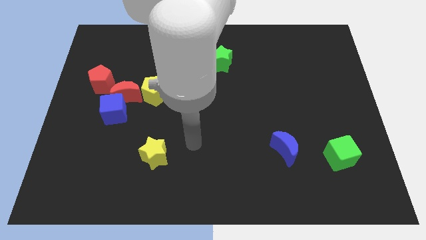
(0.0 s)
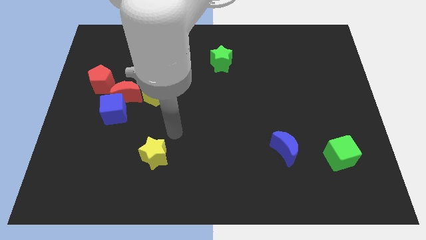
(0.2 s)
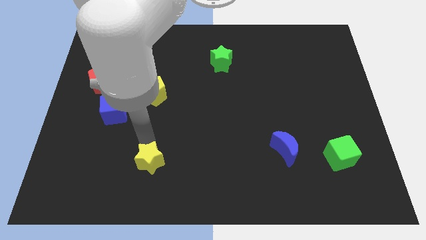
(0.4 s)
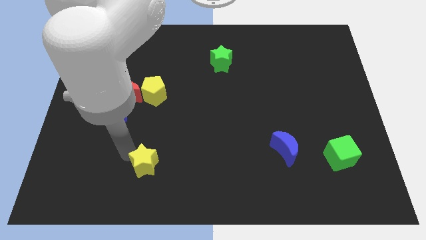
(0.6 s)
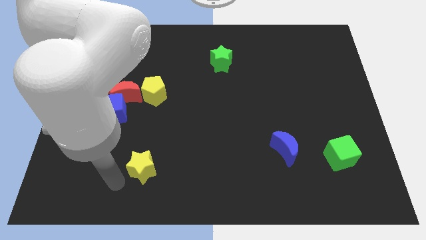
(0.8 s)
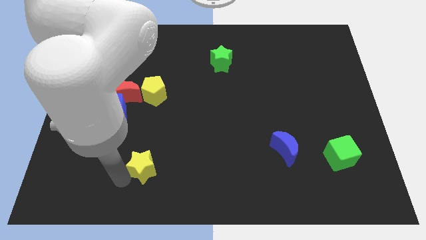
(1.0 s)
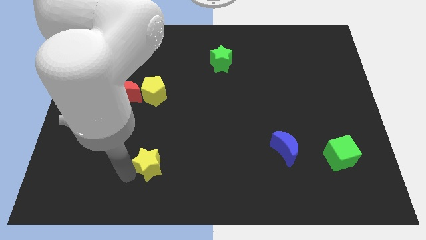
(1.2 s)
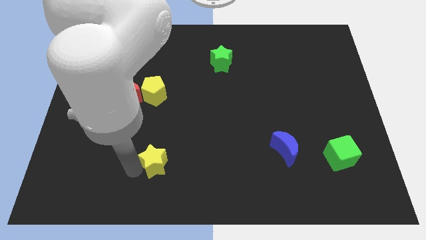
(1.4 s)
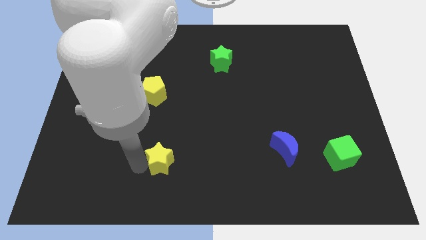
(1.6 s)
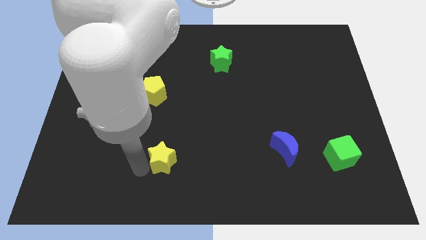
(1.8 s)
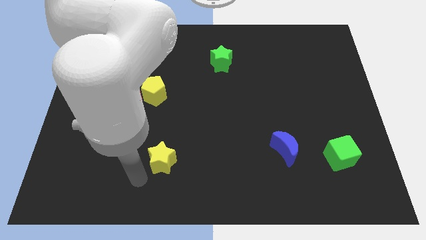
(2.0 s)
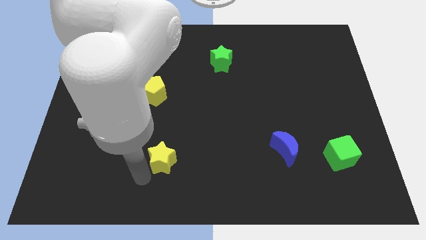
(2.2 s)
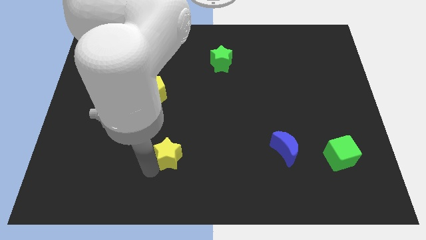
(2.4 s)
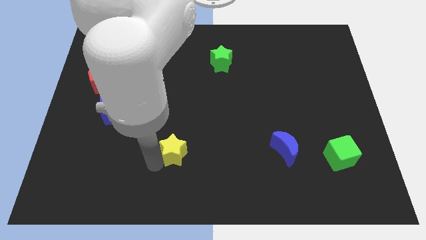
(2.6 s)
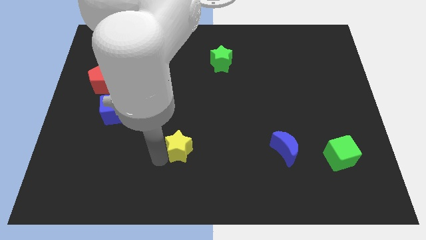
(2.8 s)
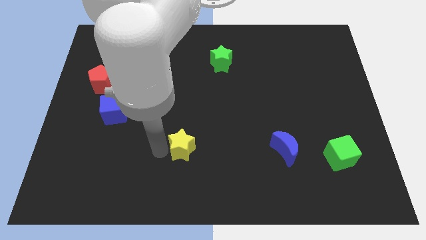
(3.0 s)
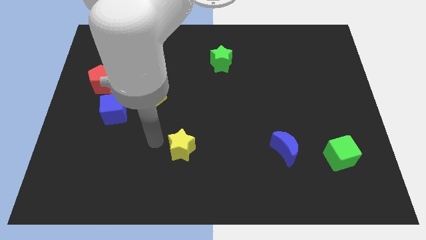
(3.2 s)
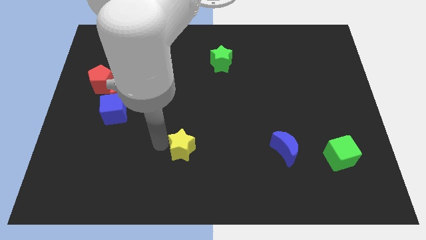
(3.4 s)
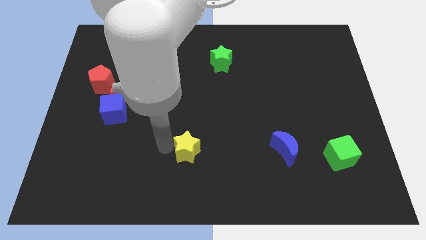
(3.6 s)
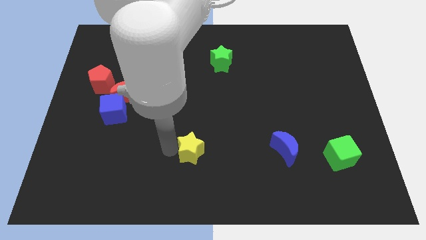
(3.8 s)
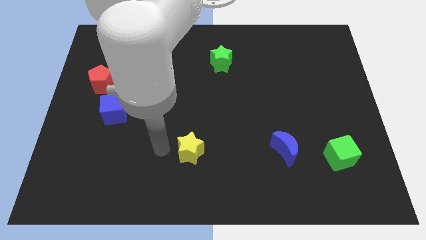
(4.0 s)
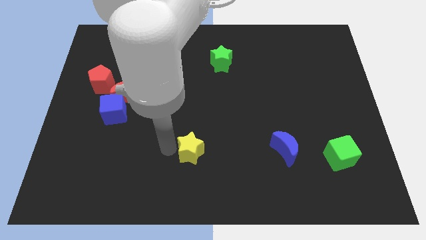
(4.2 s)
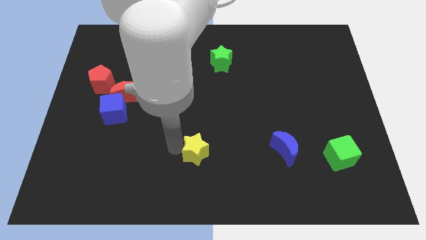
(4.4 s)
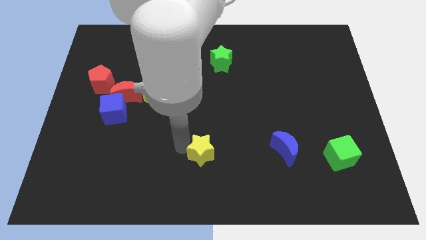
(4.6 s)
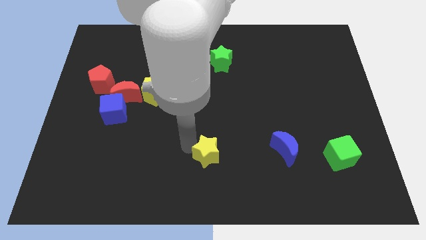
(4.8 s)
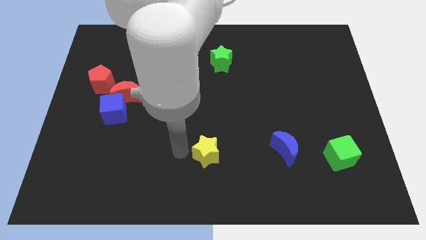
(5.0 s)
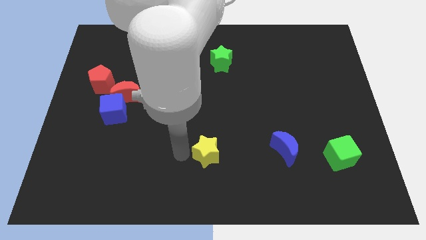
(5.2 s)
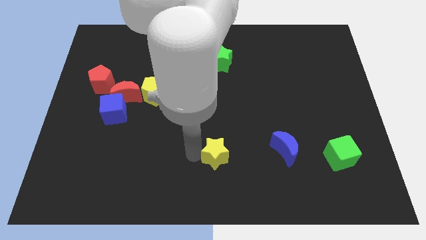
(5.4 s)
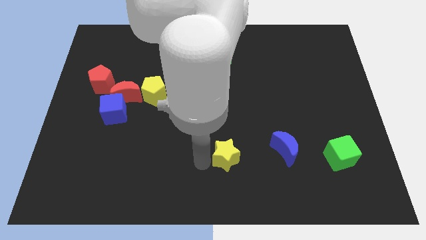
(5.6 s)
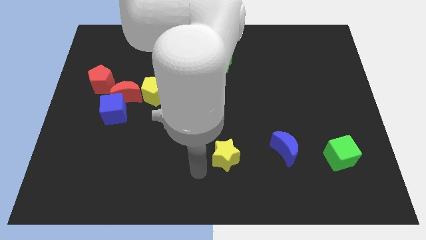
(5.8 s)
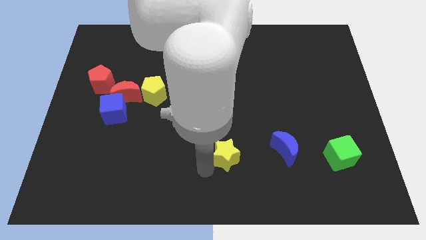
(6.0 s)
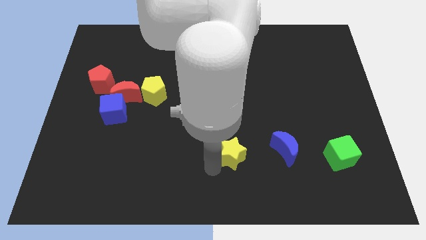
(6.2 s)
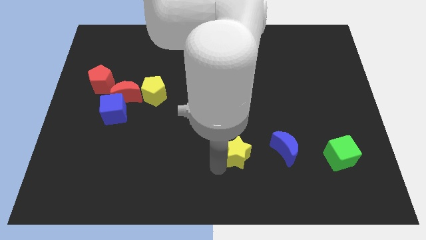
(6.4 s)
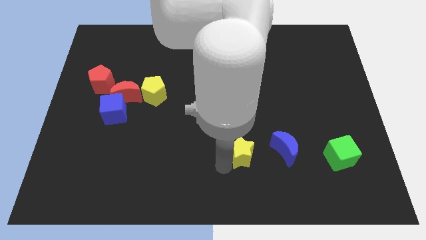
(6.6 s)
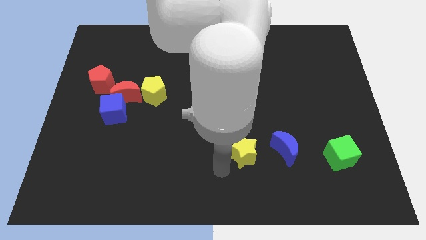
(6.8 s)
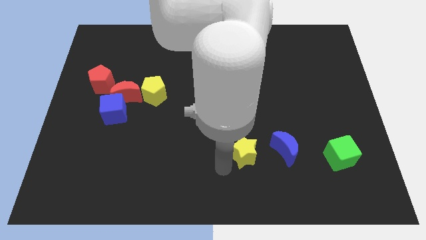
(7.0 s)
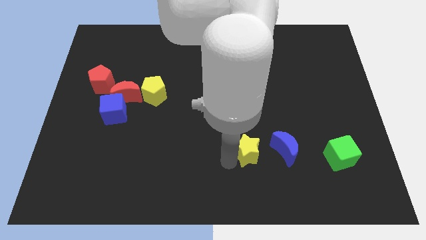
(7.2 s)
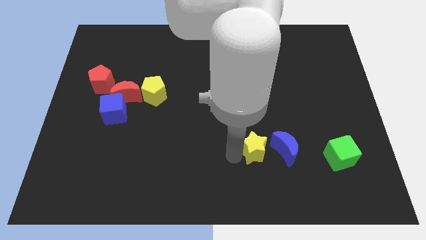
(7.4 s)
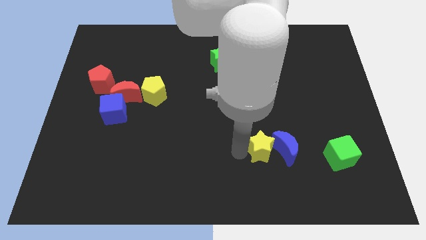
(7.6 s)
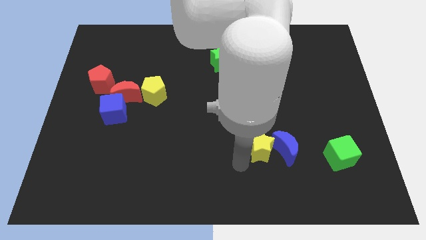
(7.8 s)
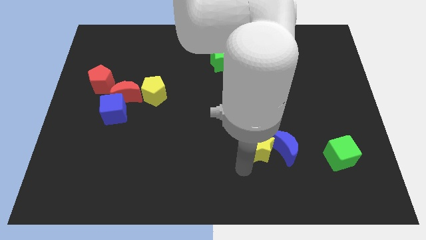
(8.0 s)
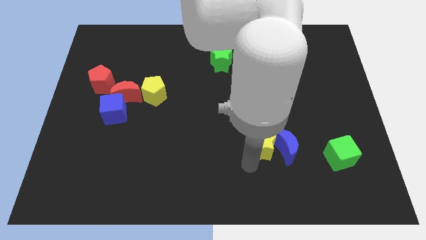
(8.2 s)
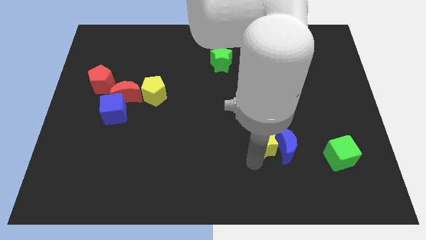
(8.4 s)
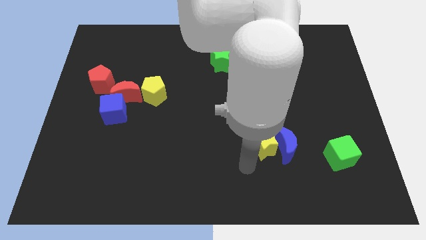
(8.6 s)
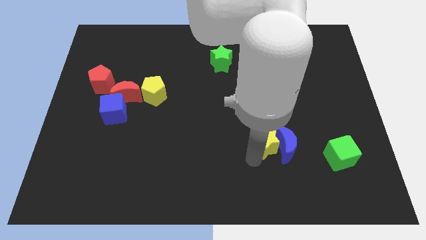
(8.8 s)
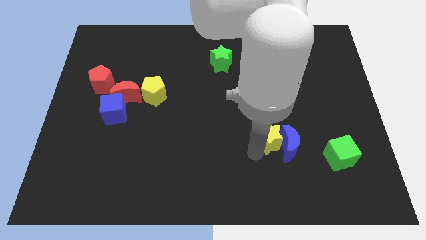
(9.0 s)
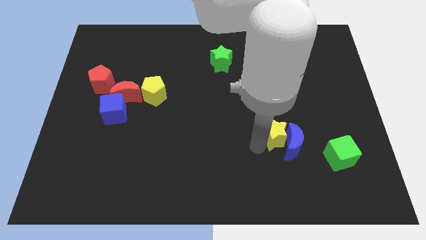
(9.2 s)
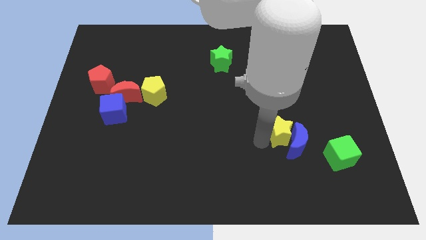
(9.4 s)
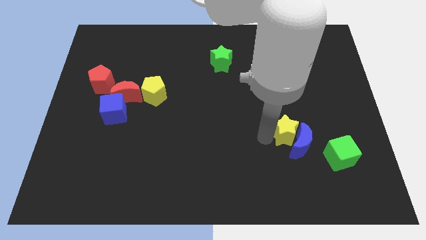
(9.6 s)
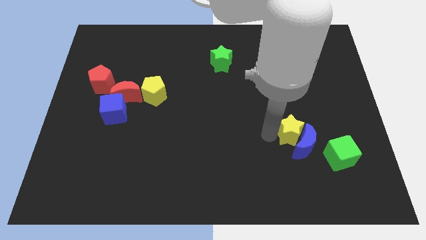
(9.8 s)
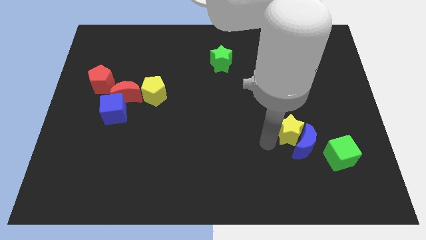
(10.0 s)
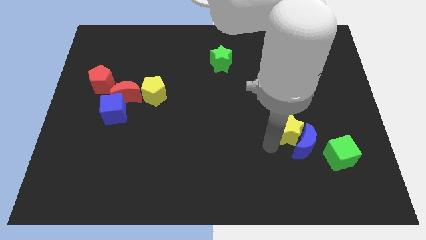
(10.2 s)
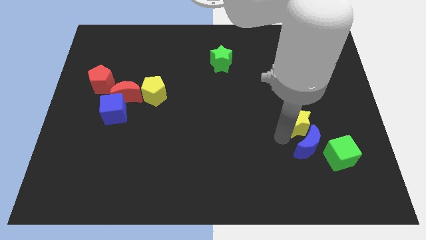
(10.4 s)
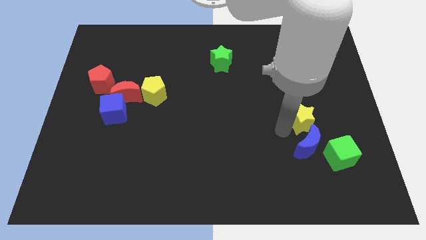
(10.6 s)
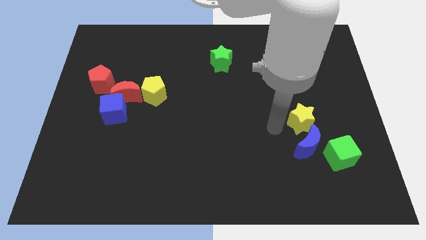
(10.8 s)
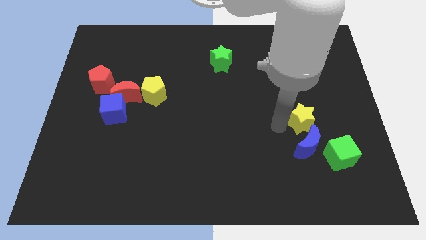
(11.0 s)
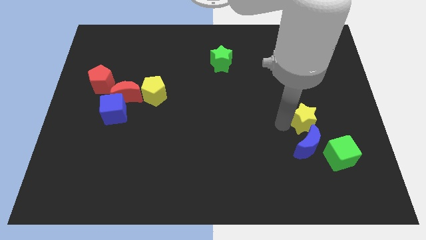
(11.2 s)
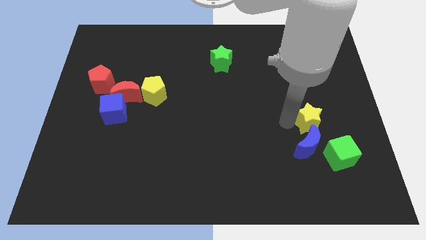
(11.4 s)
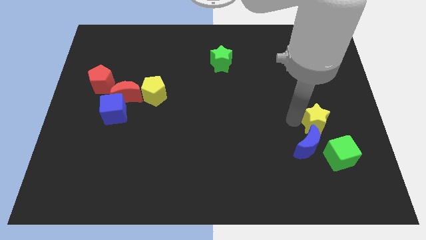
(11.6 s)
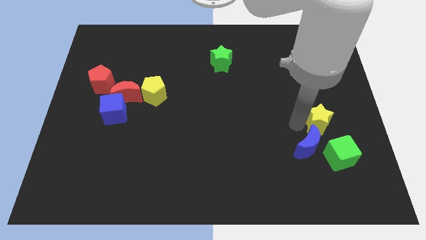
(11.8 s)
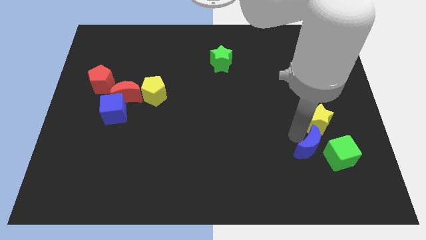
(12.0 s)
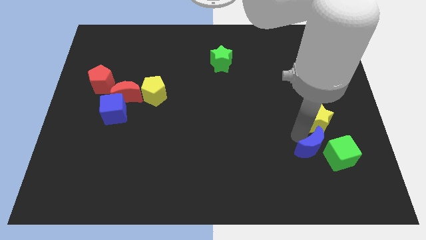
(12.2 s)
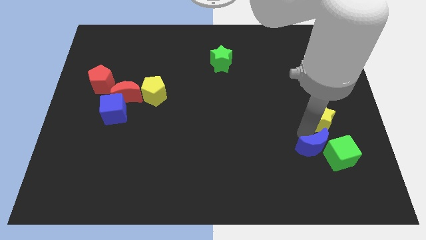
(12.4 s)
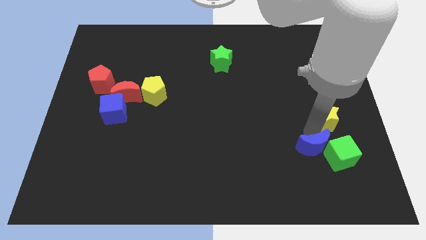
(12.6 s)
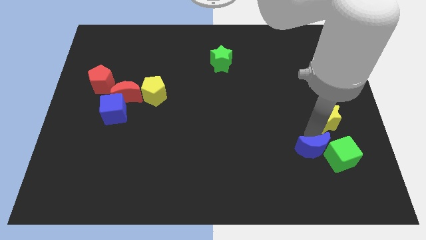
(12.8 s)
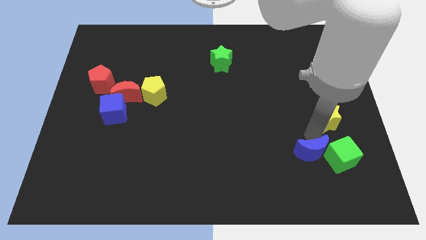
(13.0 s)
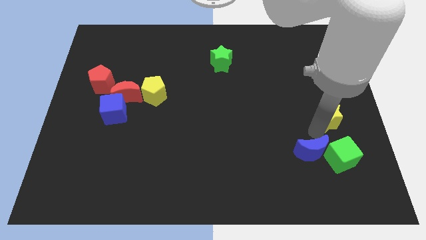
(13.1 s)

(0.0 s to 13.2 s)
push the yellow star to the right side
